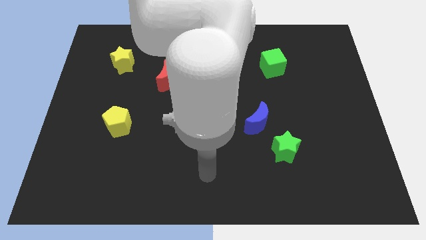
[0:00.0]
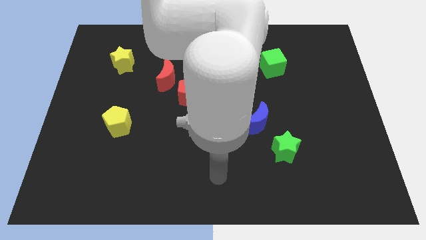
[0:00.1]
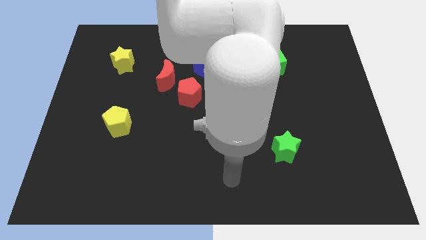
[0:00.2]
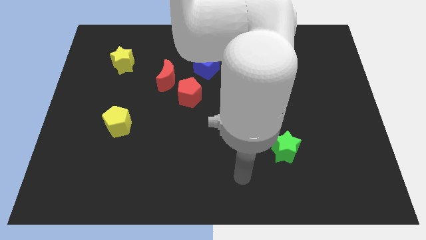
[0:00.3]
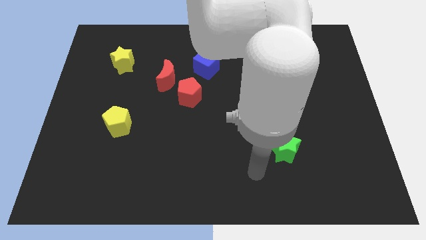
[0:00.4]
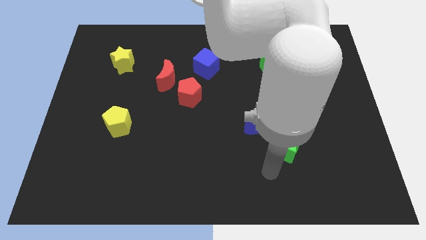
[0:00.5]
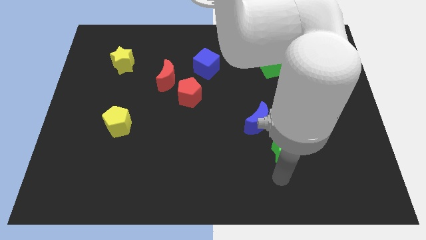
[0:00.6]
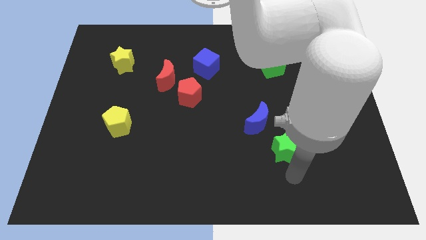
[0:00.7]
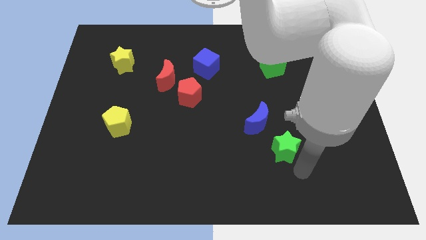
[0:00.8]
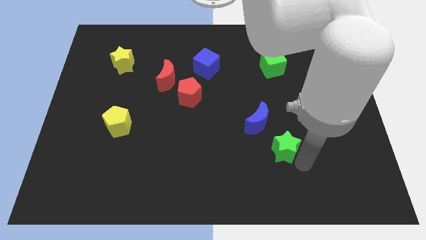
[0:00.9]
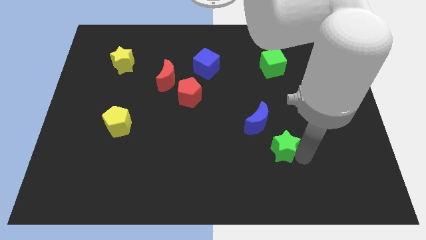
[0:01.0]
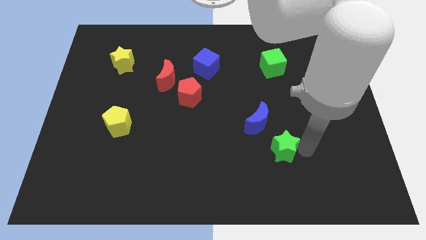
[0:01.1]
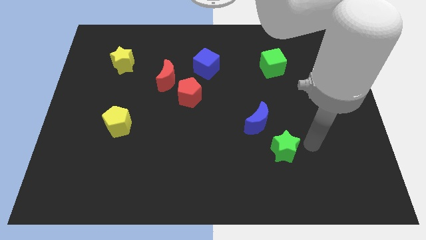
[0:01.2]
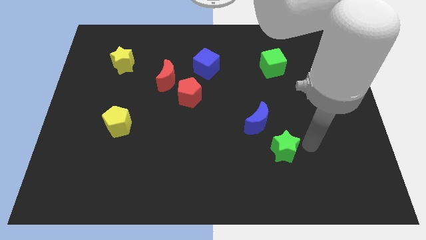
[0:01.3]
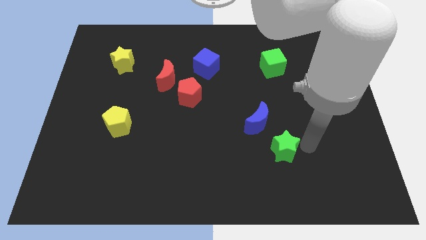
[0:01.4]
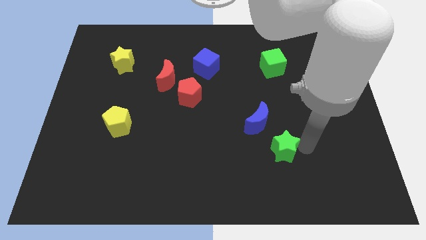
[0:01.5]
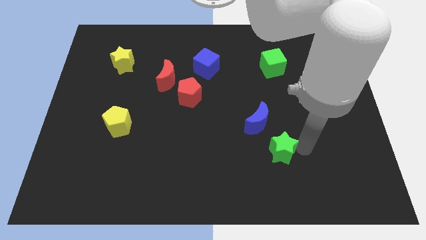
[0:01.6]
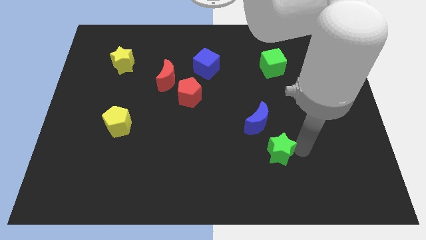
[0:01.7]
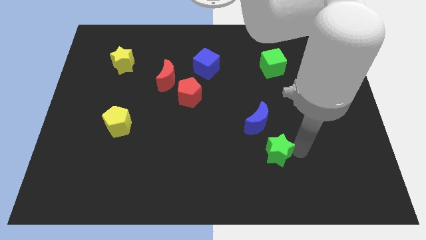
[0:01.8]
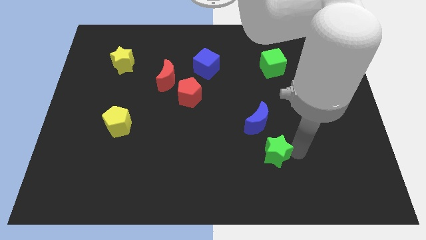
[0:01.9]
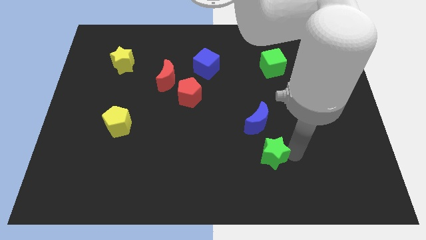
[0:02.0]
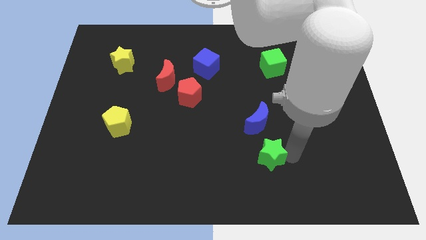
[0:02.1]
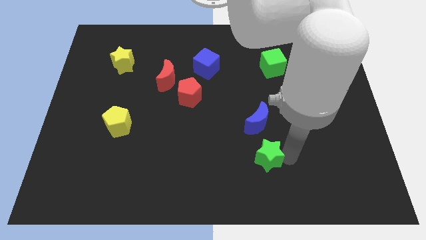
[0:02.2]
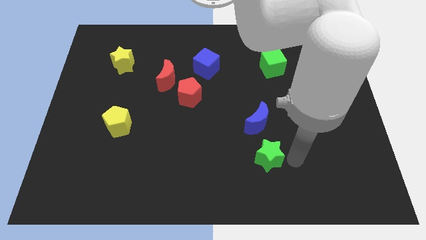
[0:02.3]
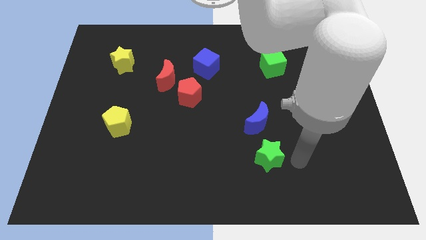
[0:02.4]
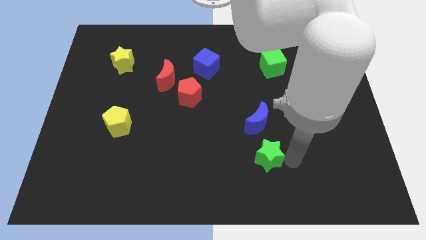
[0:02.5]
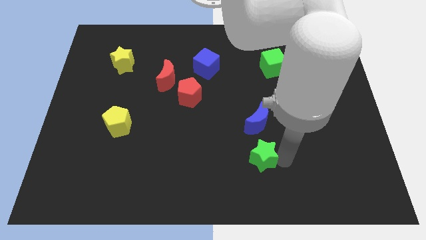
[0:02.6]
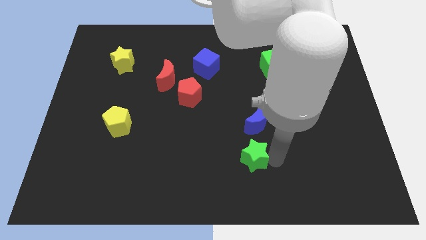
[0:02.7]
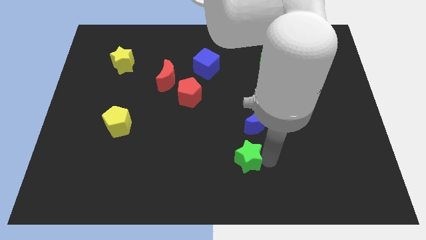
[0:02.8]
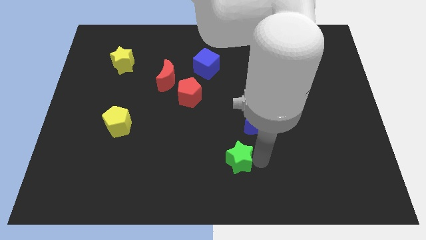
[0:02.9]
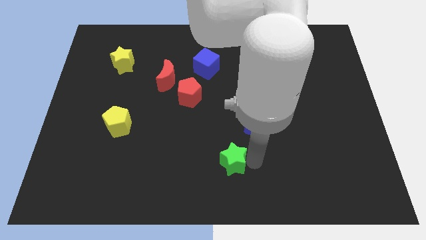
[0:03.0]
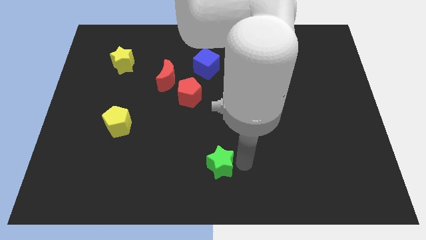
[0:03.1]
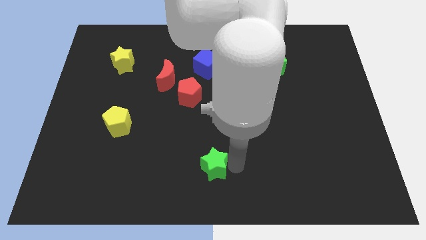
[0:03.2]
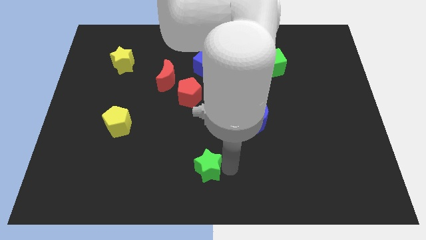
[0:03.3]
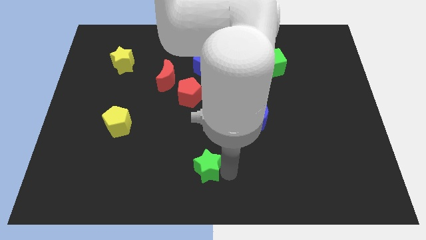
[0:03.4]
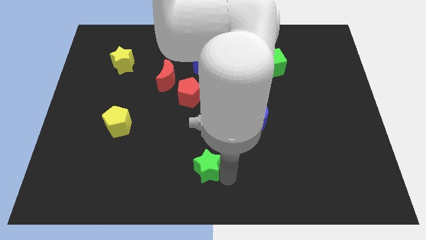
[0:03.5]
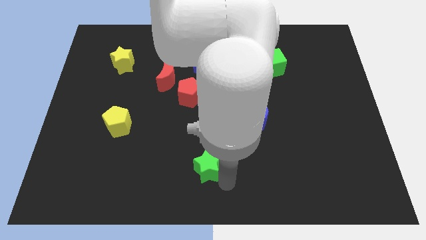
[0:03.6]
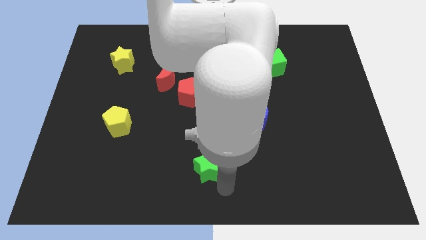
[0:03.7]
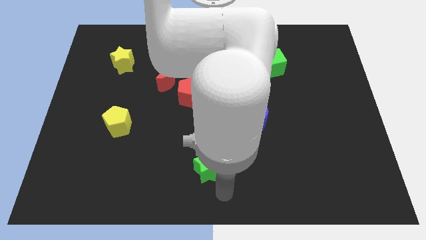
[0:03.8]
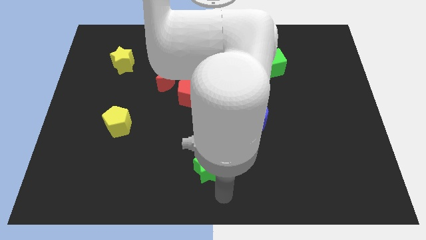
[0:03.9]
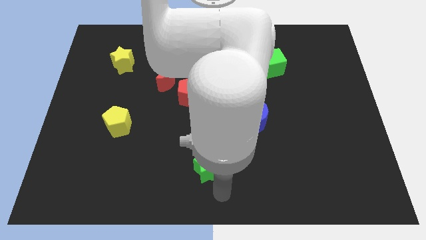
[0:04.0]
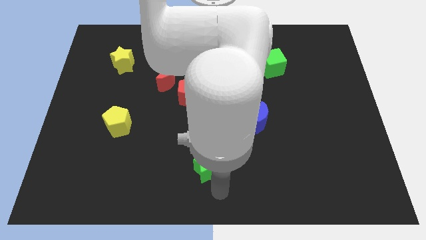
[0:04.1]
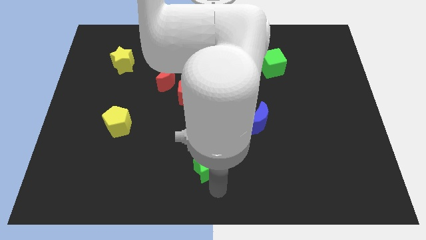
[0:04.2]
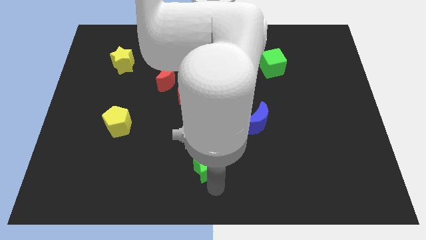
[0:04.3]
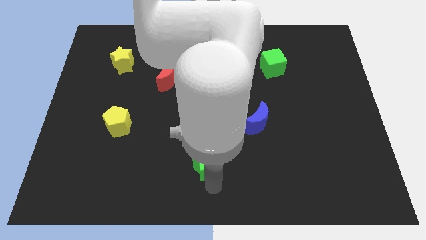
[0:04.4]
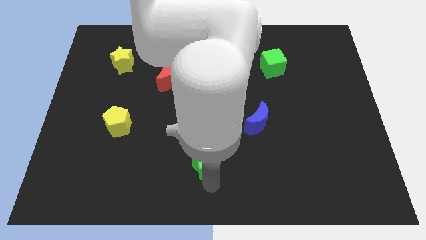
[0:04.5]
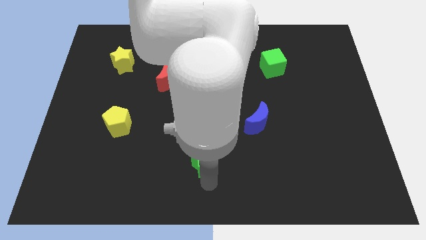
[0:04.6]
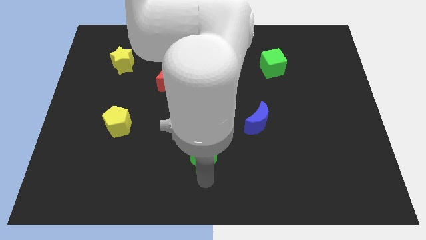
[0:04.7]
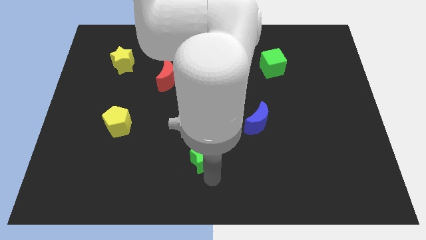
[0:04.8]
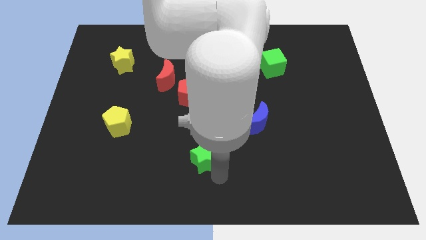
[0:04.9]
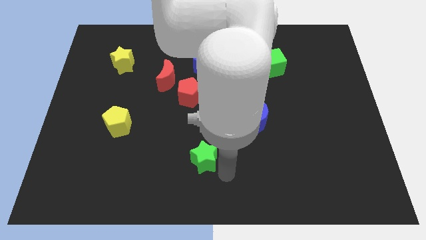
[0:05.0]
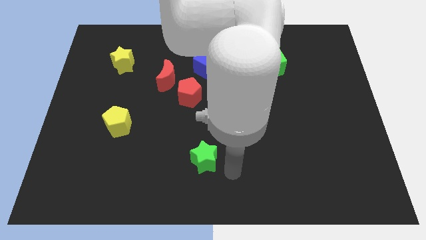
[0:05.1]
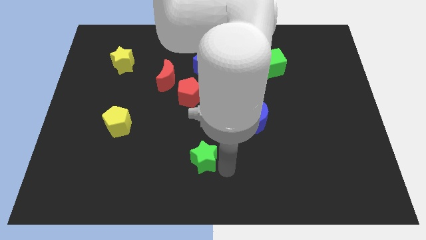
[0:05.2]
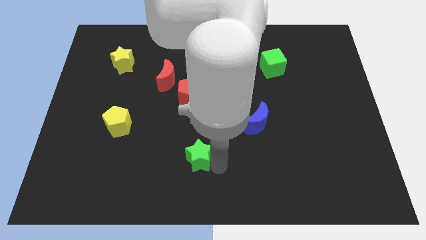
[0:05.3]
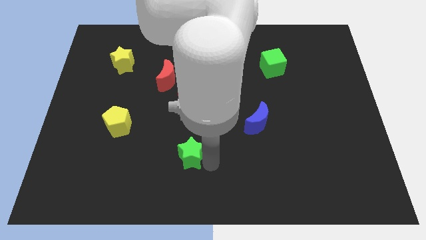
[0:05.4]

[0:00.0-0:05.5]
move the green star left

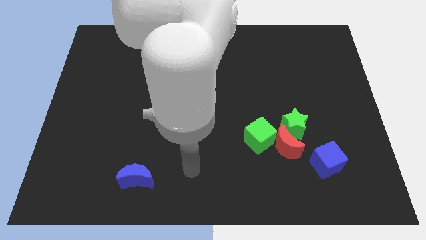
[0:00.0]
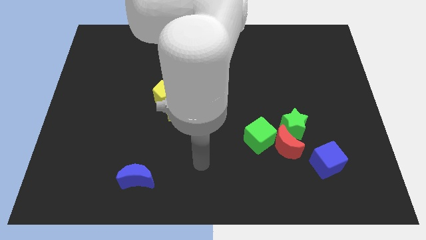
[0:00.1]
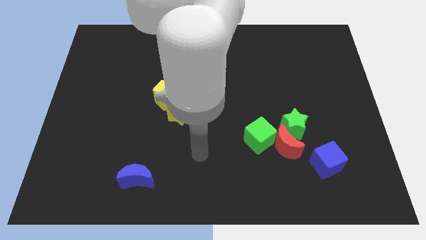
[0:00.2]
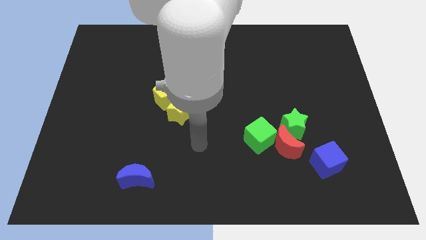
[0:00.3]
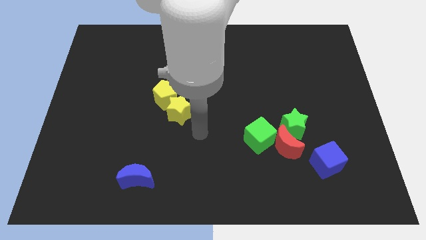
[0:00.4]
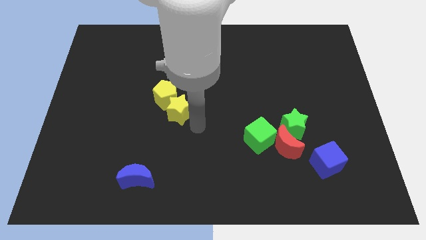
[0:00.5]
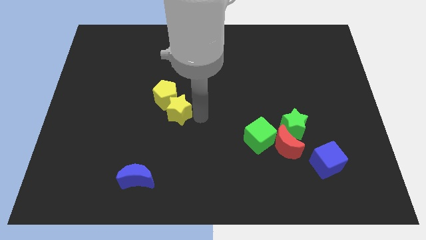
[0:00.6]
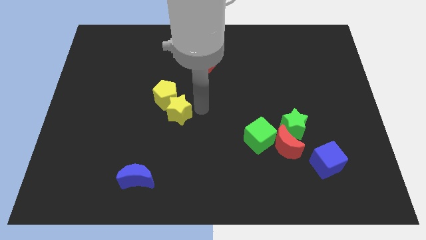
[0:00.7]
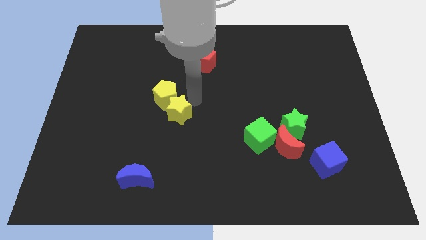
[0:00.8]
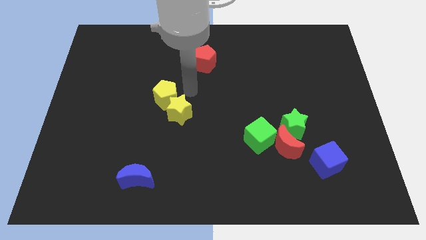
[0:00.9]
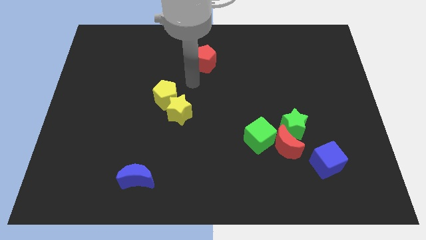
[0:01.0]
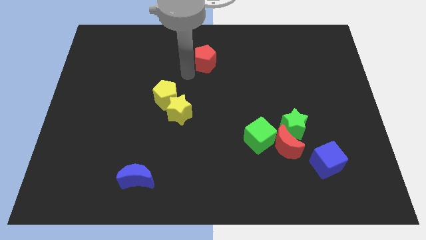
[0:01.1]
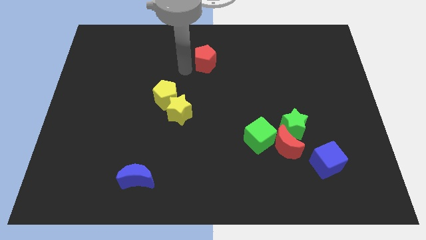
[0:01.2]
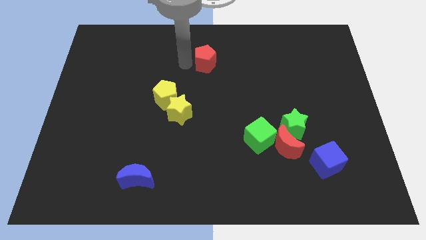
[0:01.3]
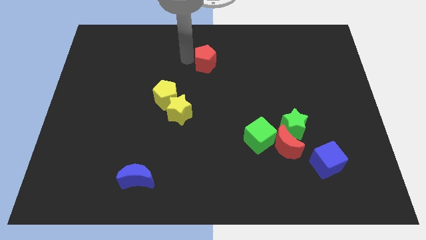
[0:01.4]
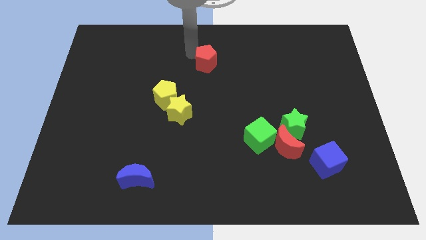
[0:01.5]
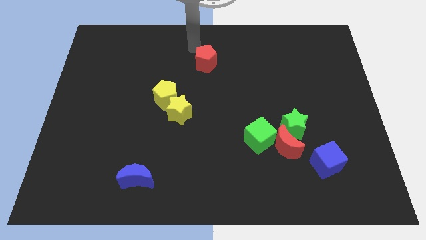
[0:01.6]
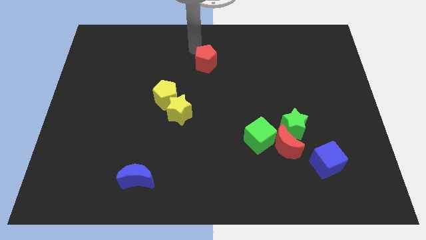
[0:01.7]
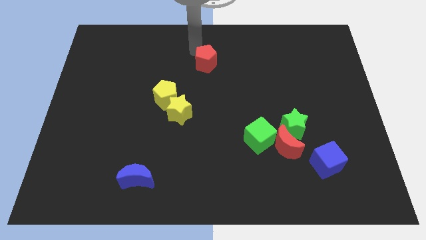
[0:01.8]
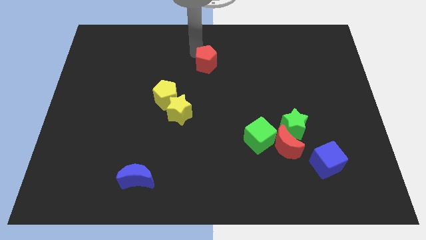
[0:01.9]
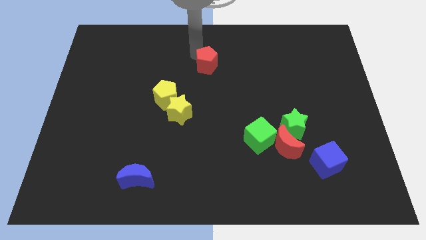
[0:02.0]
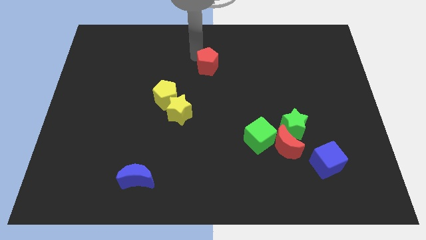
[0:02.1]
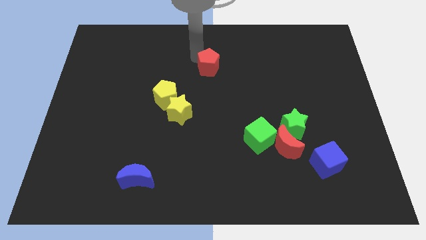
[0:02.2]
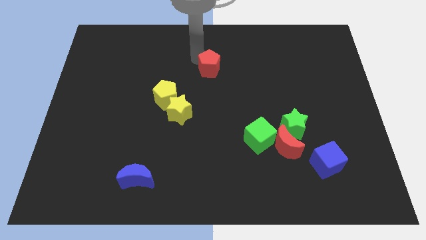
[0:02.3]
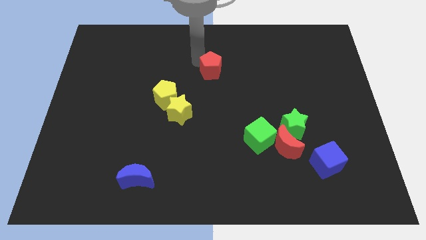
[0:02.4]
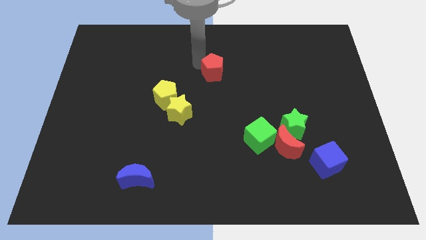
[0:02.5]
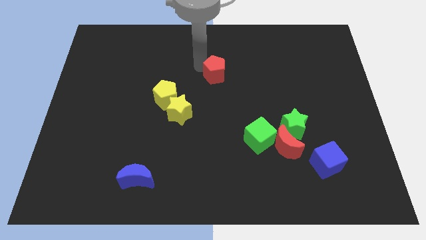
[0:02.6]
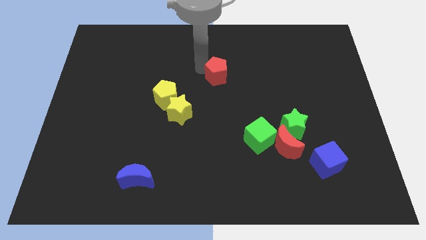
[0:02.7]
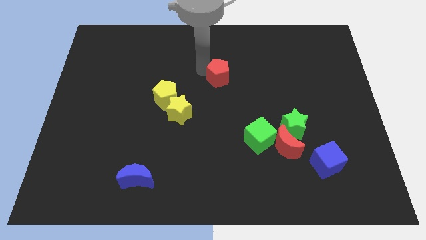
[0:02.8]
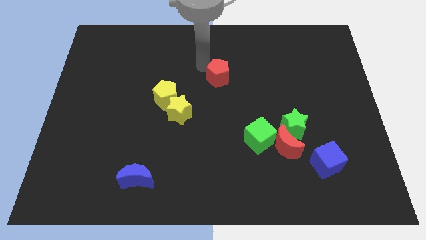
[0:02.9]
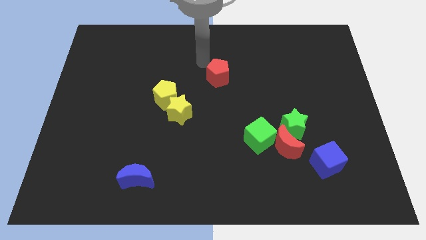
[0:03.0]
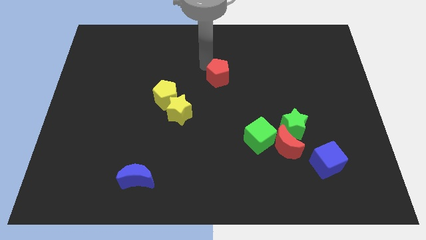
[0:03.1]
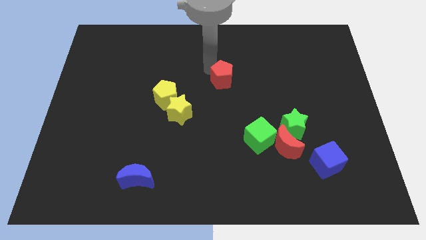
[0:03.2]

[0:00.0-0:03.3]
slightly move the red pentagon diagonally downwards and to the right
